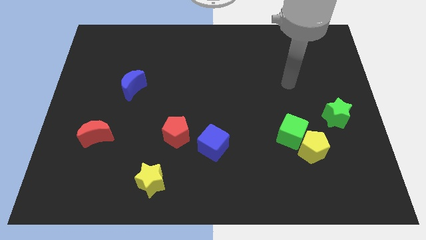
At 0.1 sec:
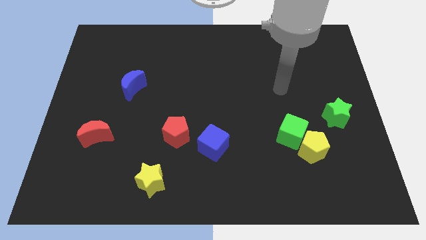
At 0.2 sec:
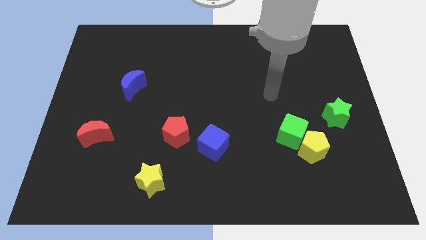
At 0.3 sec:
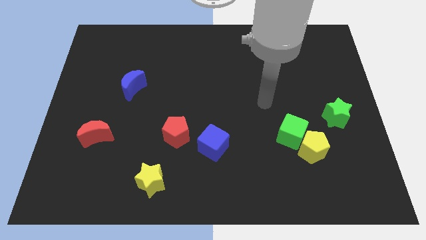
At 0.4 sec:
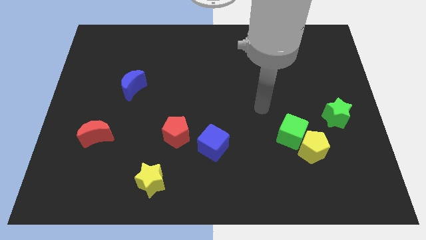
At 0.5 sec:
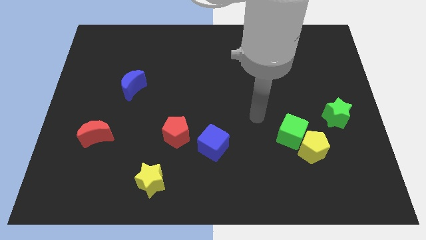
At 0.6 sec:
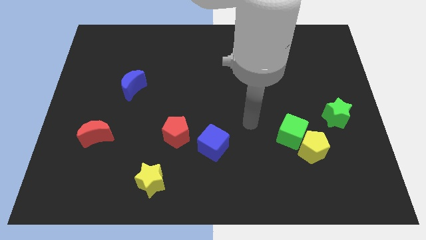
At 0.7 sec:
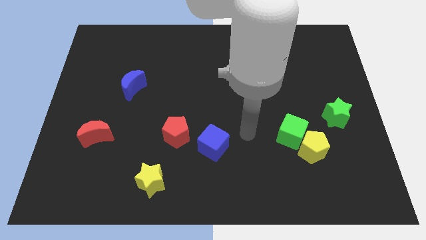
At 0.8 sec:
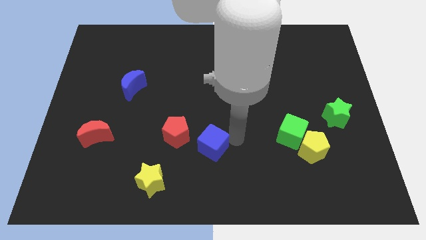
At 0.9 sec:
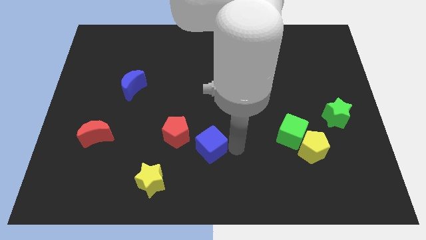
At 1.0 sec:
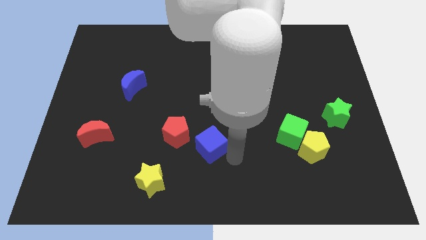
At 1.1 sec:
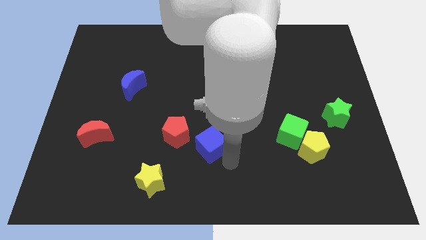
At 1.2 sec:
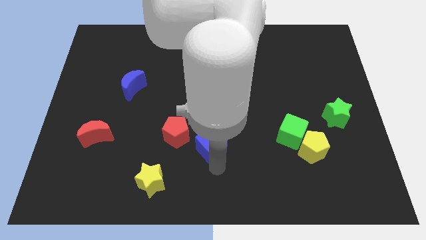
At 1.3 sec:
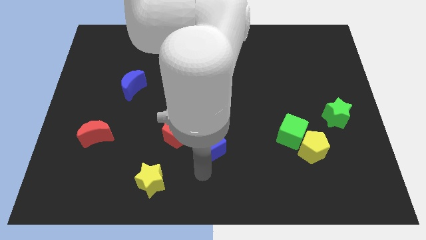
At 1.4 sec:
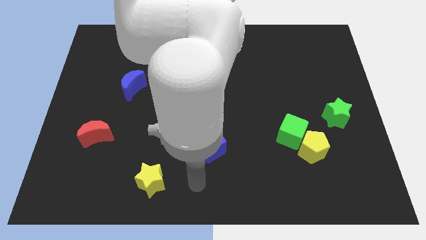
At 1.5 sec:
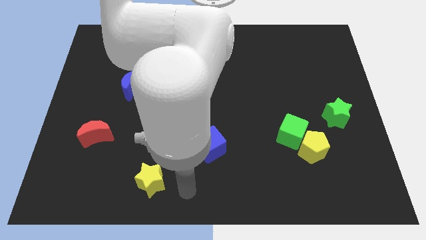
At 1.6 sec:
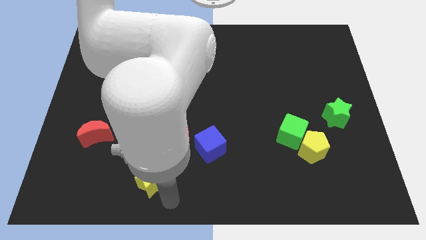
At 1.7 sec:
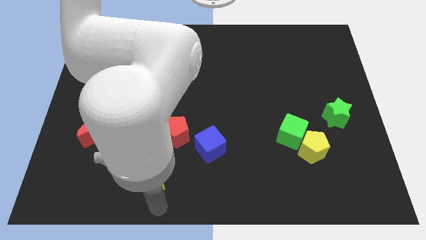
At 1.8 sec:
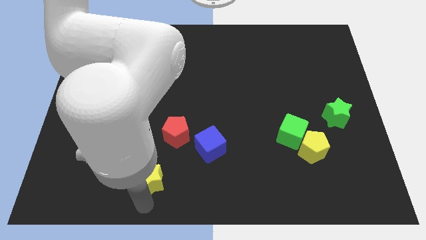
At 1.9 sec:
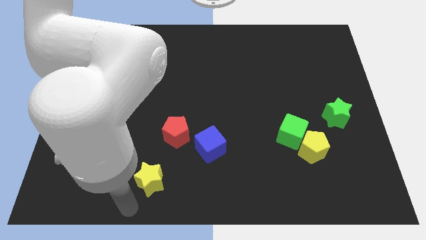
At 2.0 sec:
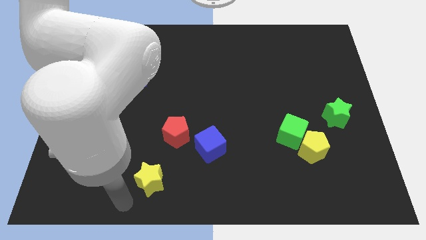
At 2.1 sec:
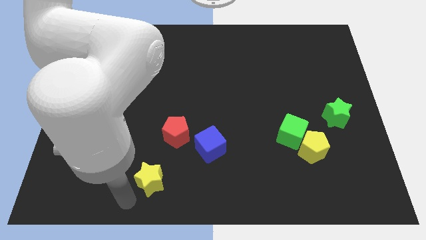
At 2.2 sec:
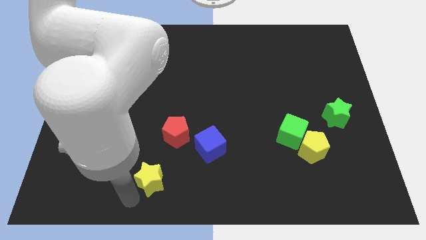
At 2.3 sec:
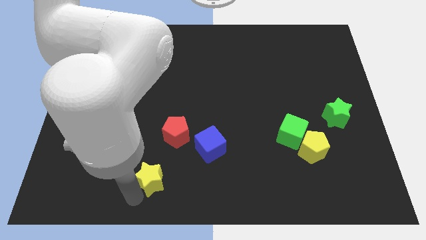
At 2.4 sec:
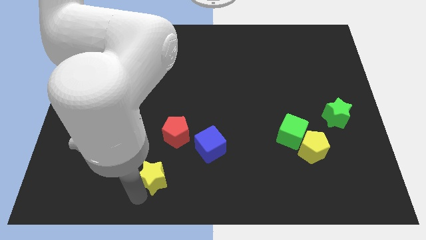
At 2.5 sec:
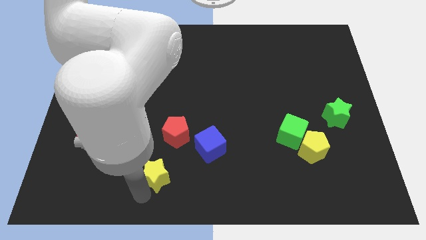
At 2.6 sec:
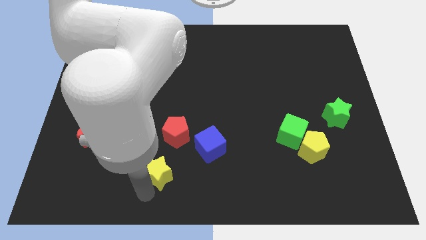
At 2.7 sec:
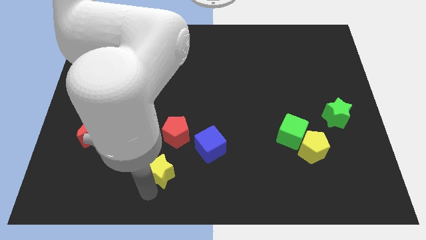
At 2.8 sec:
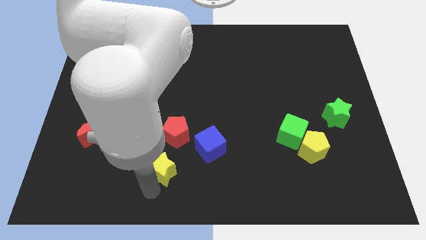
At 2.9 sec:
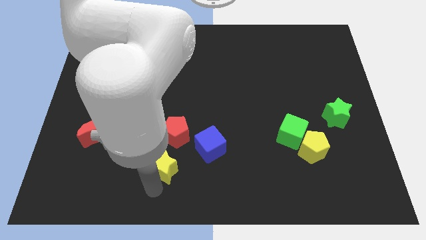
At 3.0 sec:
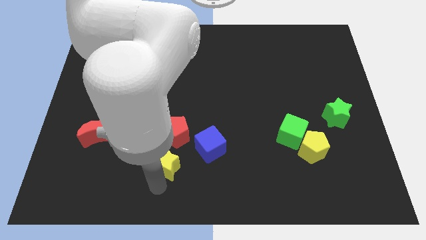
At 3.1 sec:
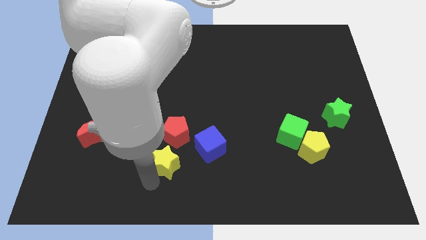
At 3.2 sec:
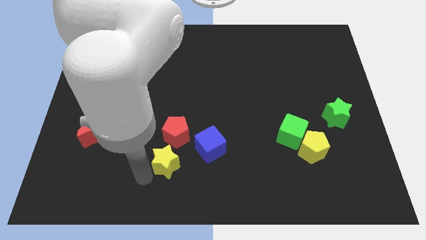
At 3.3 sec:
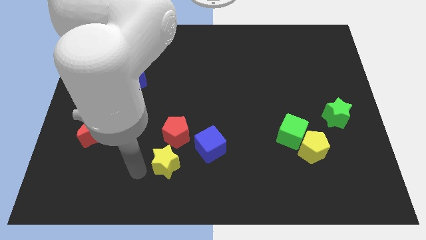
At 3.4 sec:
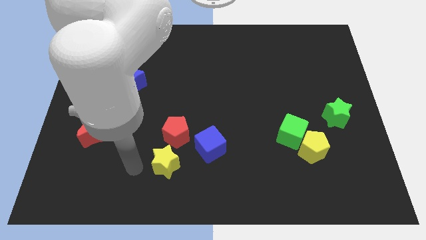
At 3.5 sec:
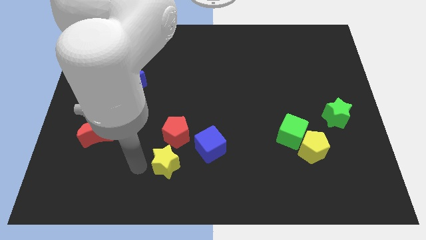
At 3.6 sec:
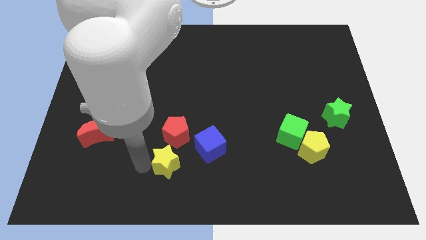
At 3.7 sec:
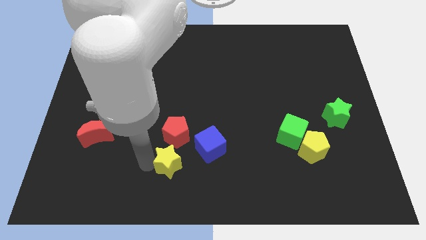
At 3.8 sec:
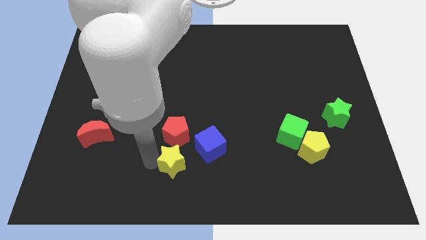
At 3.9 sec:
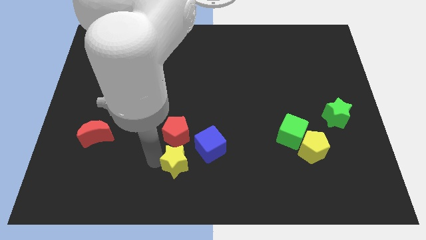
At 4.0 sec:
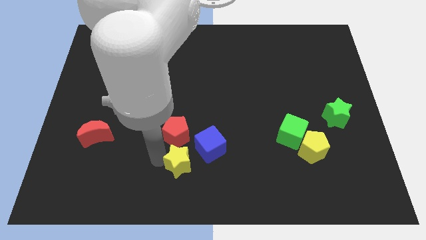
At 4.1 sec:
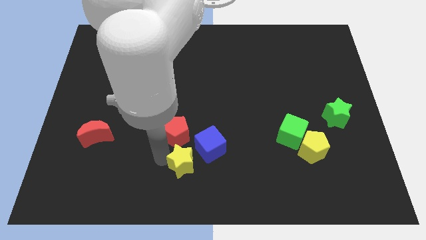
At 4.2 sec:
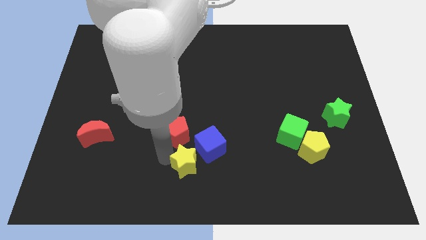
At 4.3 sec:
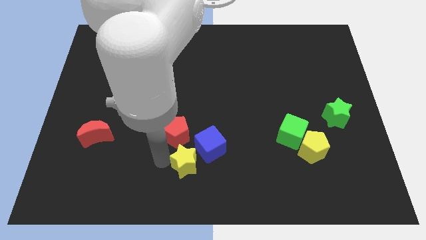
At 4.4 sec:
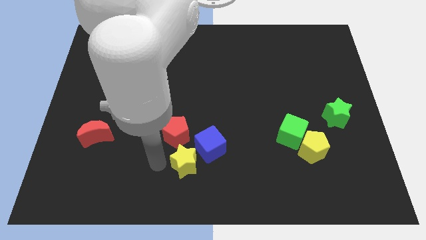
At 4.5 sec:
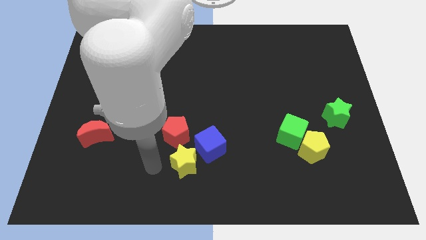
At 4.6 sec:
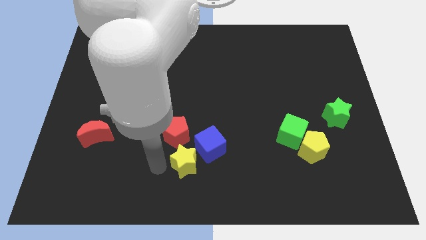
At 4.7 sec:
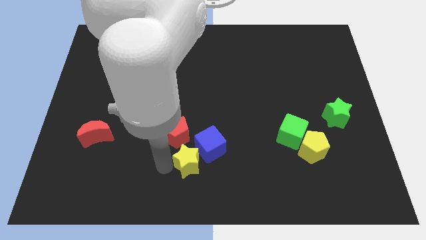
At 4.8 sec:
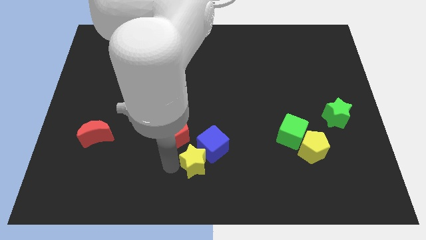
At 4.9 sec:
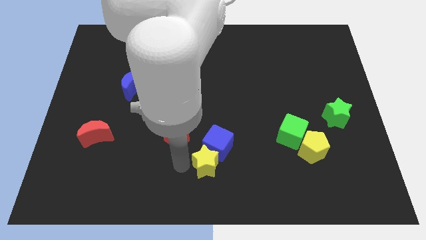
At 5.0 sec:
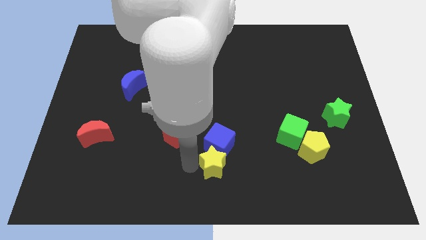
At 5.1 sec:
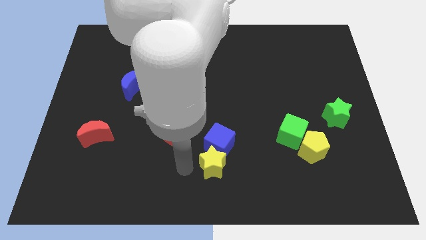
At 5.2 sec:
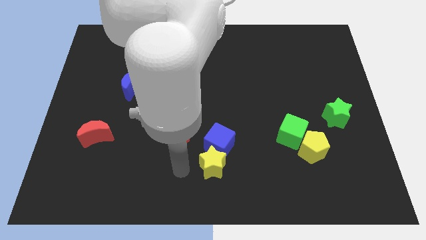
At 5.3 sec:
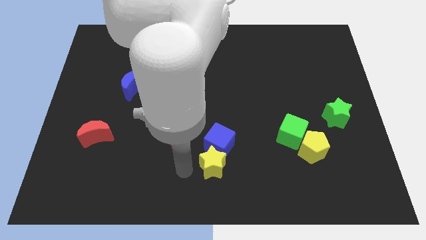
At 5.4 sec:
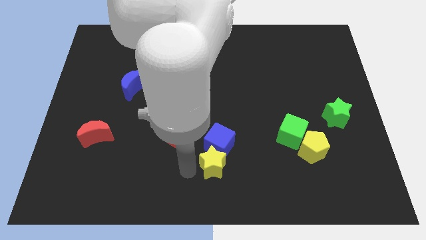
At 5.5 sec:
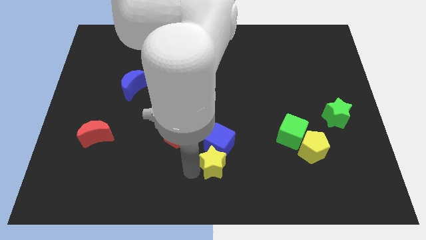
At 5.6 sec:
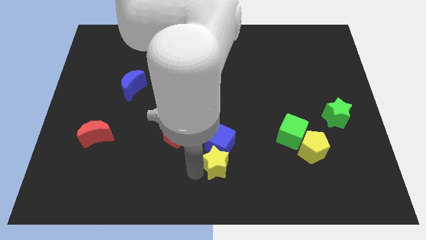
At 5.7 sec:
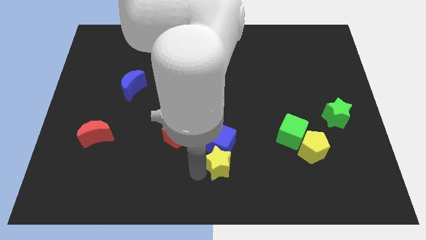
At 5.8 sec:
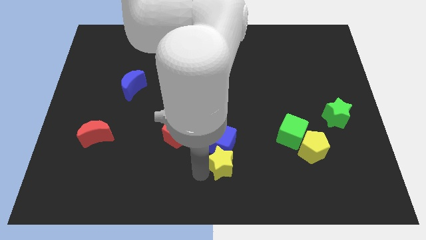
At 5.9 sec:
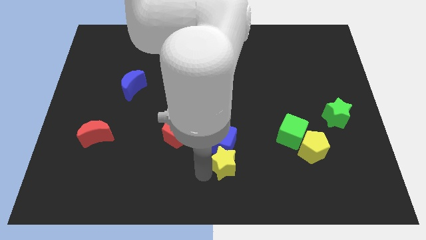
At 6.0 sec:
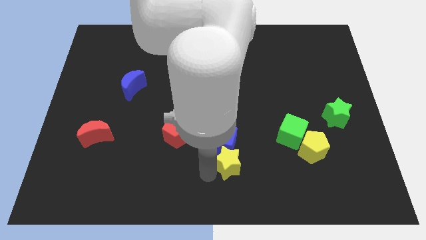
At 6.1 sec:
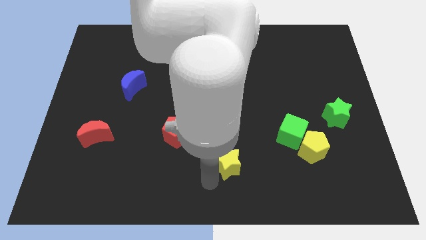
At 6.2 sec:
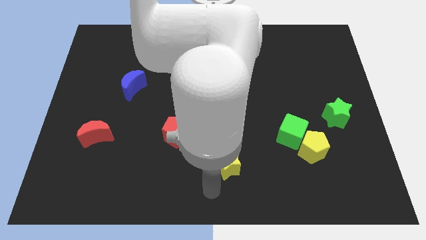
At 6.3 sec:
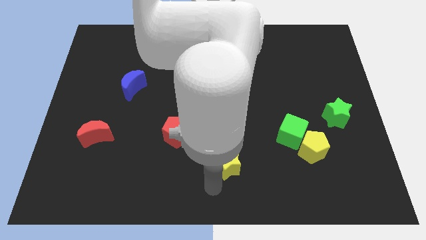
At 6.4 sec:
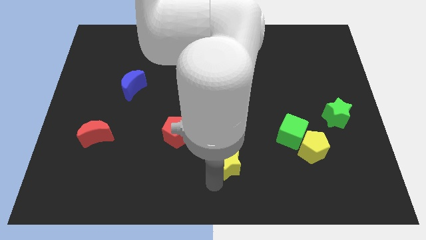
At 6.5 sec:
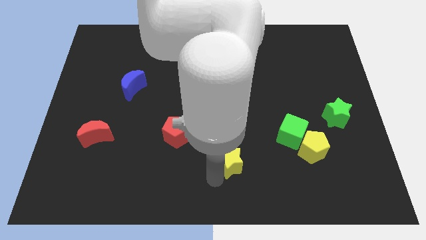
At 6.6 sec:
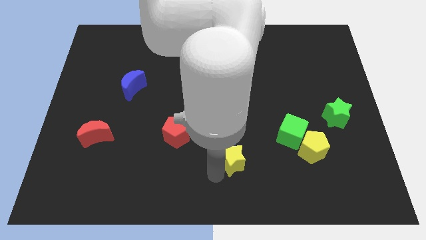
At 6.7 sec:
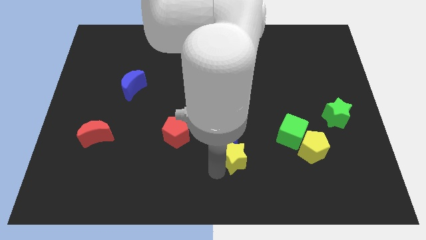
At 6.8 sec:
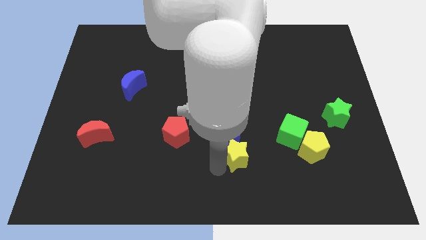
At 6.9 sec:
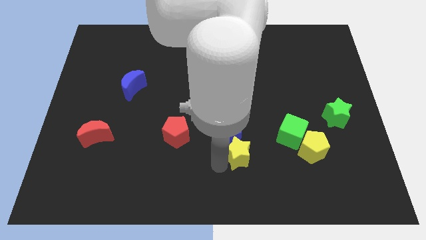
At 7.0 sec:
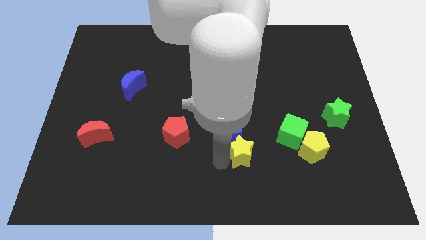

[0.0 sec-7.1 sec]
push the yellow star left of the green cube
